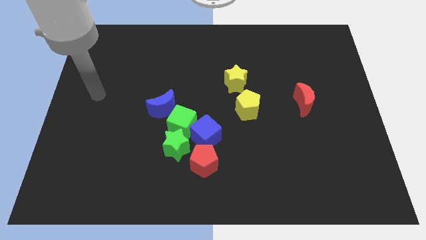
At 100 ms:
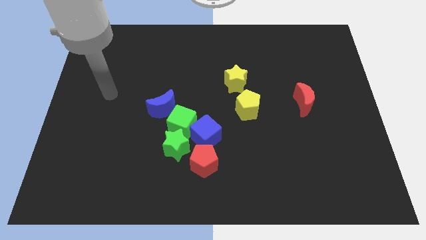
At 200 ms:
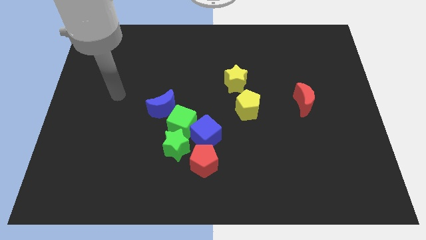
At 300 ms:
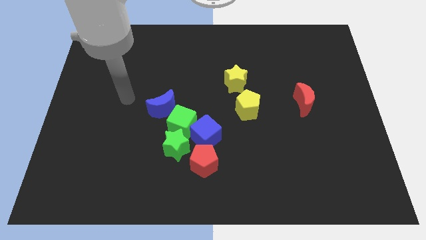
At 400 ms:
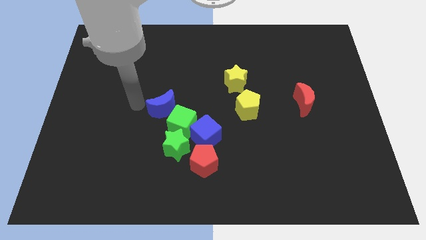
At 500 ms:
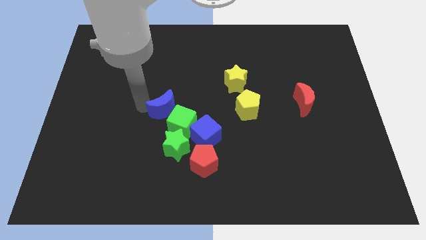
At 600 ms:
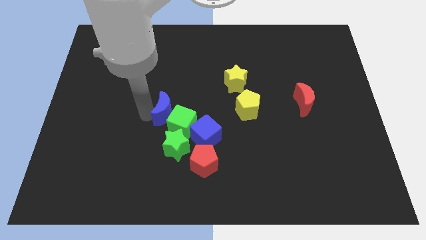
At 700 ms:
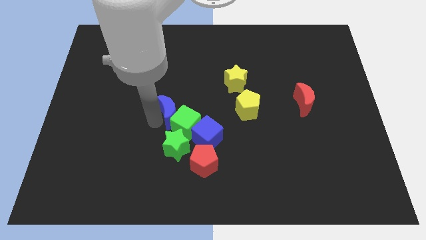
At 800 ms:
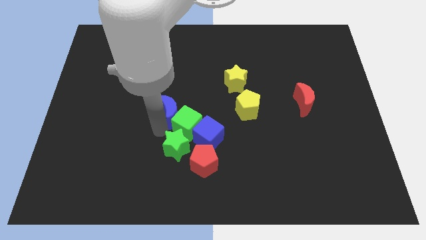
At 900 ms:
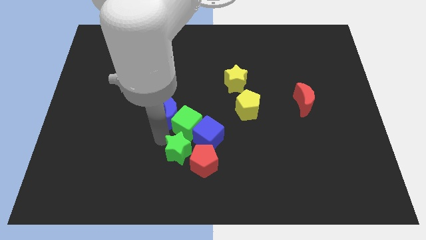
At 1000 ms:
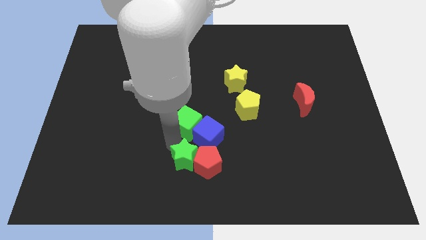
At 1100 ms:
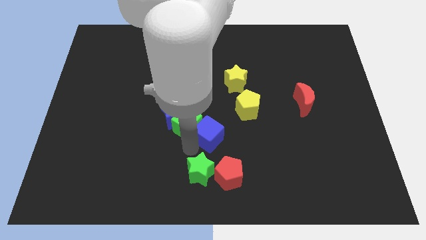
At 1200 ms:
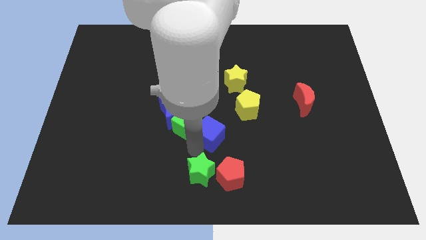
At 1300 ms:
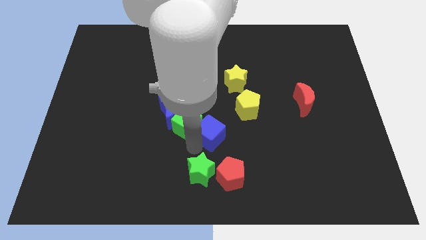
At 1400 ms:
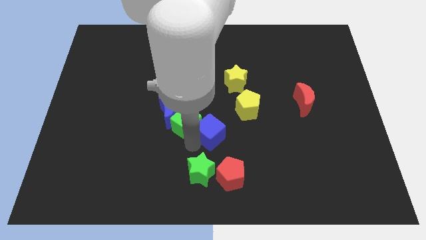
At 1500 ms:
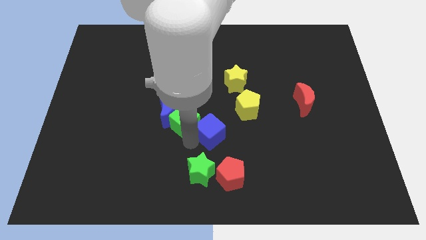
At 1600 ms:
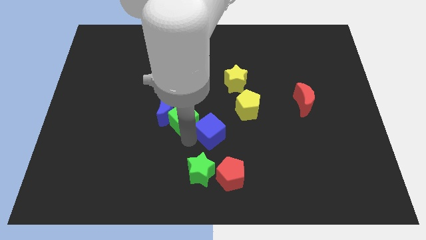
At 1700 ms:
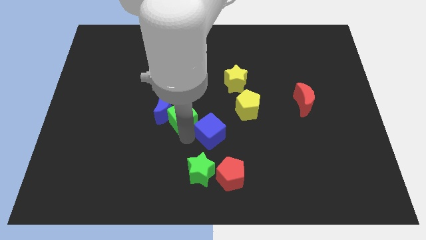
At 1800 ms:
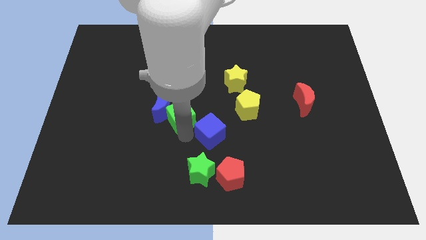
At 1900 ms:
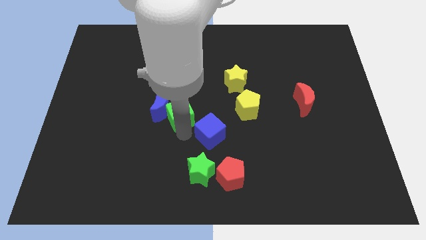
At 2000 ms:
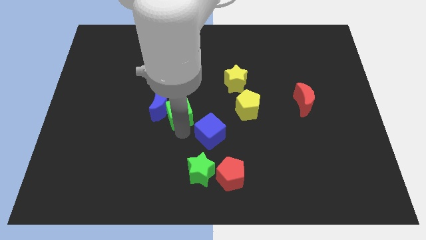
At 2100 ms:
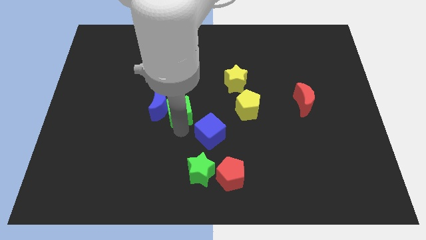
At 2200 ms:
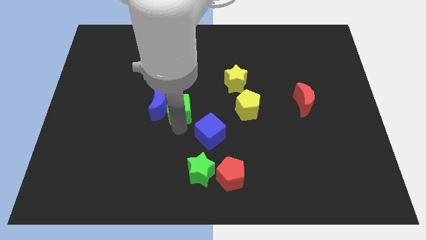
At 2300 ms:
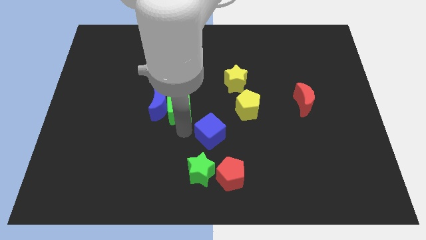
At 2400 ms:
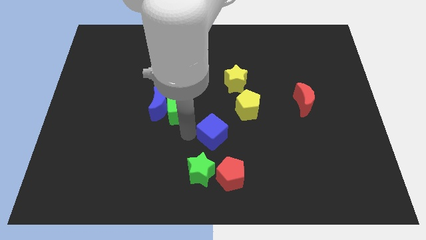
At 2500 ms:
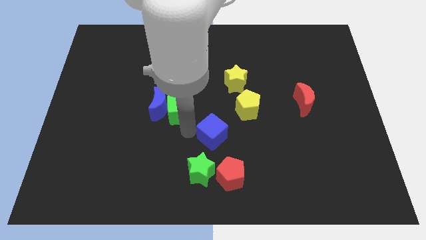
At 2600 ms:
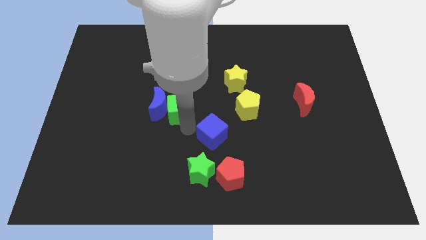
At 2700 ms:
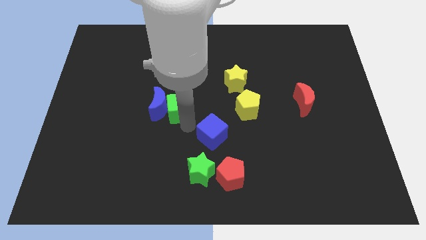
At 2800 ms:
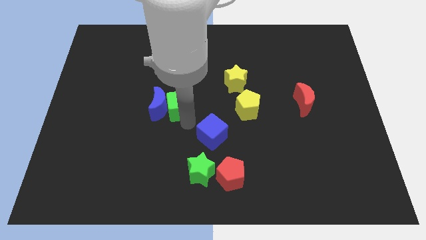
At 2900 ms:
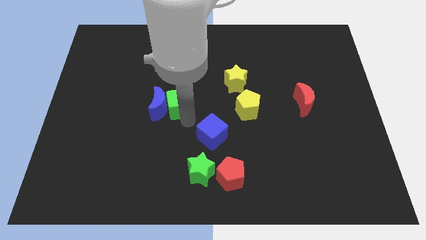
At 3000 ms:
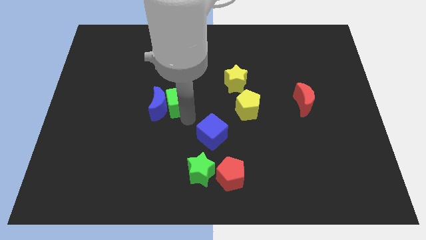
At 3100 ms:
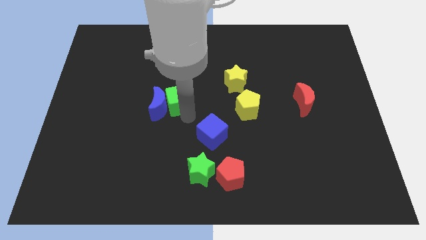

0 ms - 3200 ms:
move the green cube away from the blue cube, green star, and blue moon

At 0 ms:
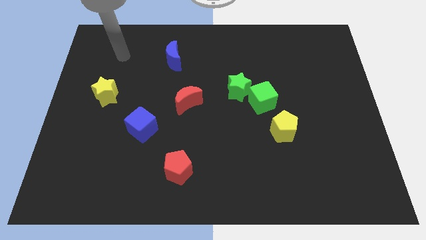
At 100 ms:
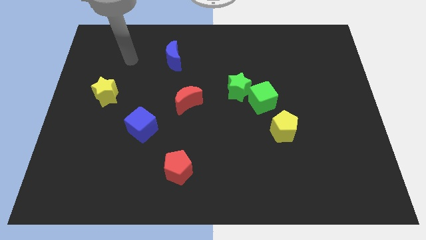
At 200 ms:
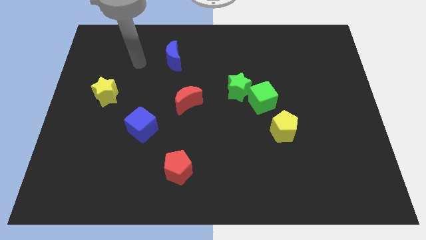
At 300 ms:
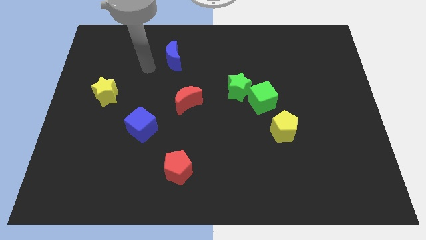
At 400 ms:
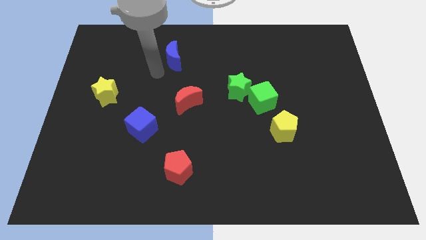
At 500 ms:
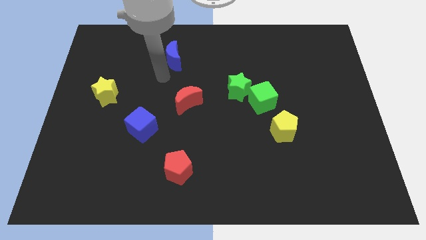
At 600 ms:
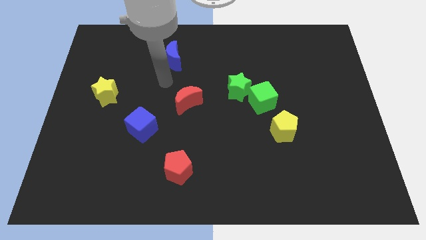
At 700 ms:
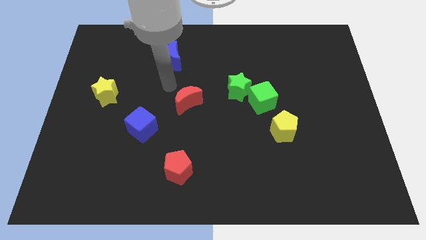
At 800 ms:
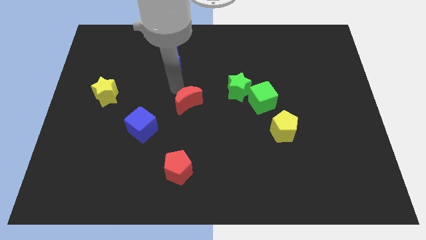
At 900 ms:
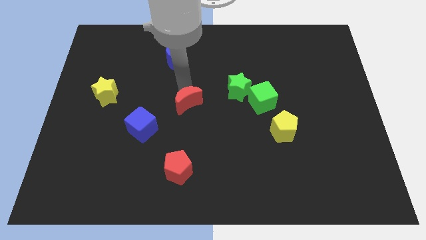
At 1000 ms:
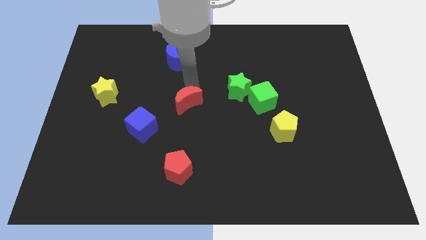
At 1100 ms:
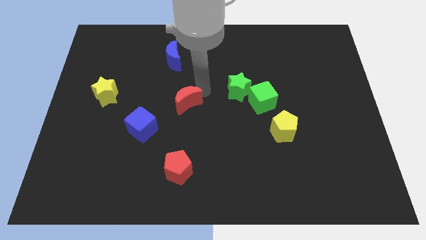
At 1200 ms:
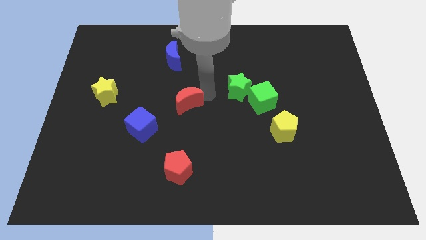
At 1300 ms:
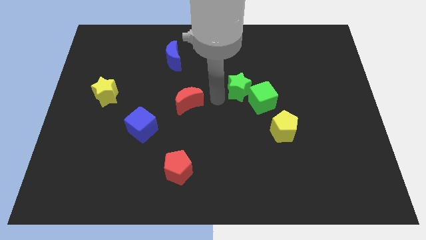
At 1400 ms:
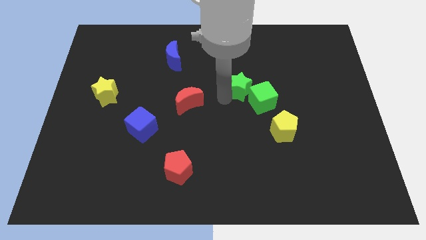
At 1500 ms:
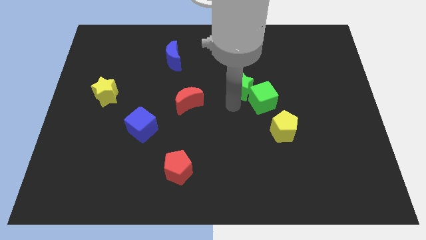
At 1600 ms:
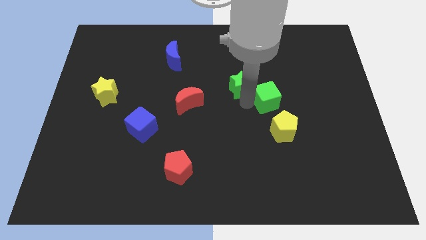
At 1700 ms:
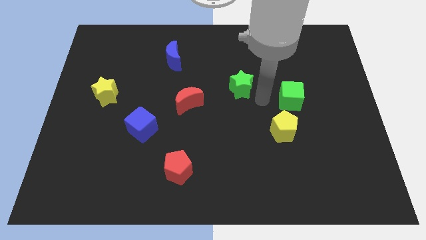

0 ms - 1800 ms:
move the green star away from the green cube

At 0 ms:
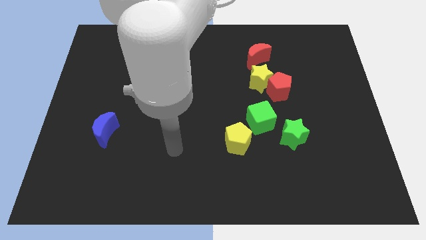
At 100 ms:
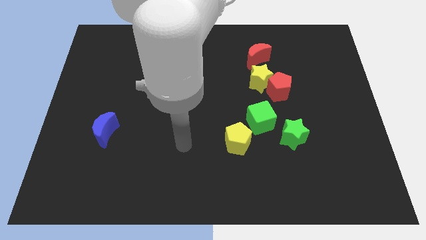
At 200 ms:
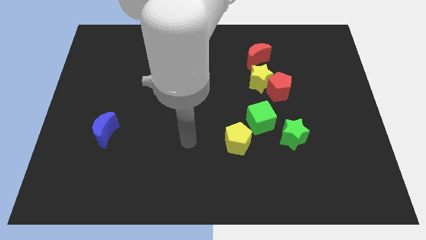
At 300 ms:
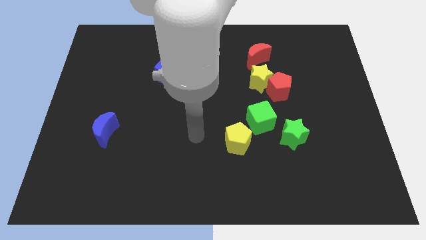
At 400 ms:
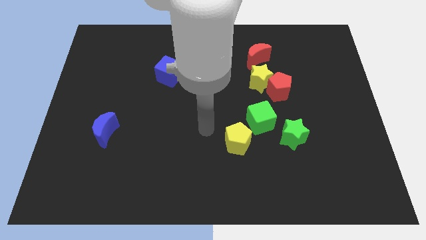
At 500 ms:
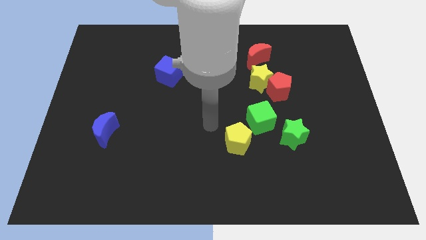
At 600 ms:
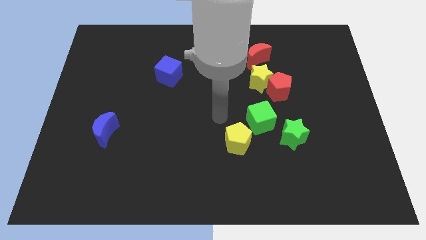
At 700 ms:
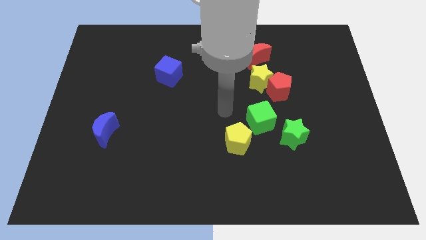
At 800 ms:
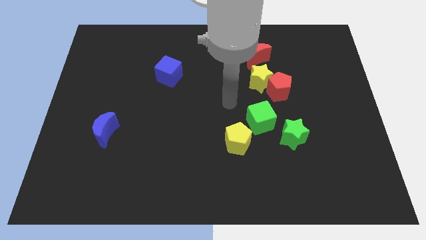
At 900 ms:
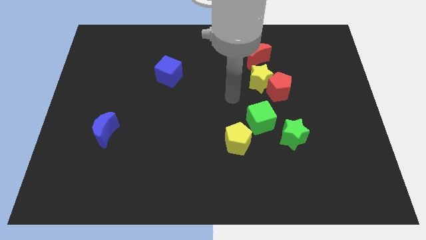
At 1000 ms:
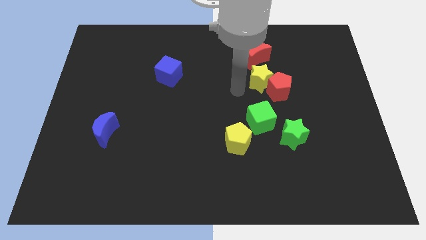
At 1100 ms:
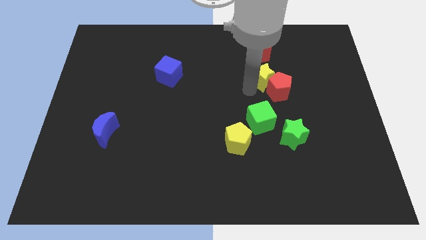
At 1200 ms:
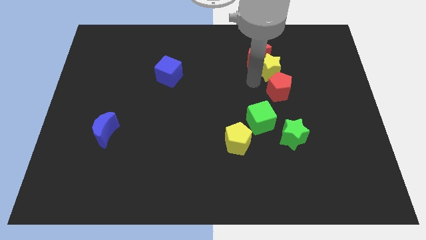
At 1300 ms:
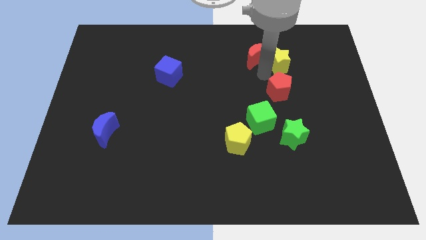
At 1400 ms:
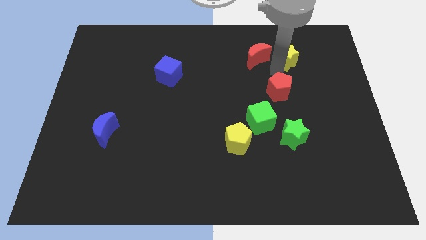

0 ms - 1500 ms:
pull the red pentagon apart from the yellow star

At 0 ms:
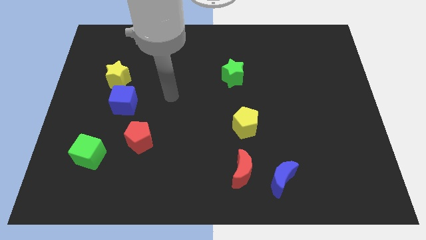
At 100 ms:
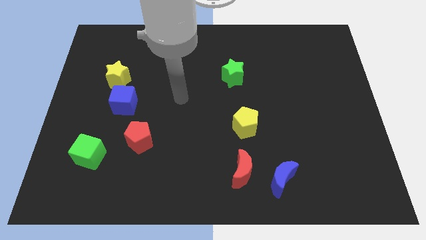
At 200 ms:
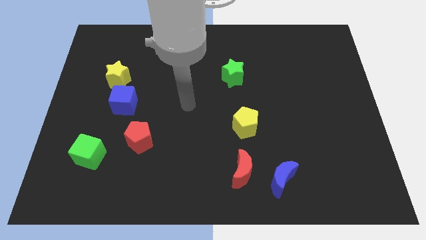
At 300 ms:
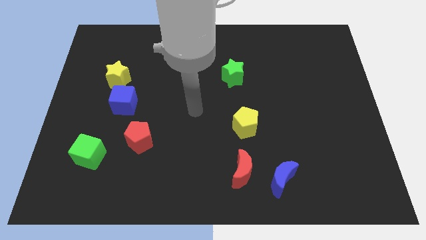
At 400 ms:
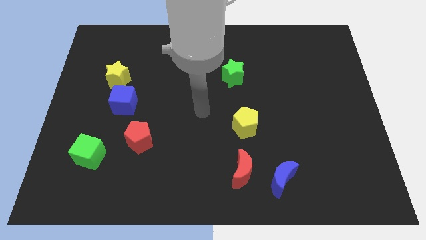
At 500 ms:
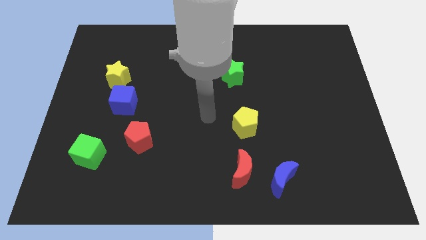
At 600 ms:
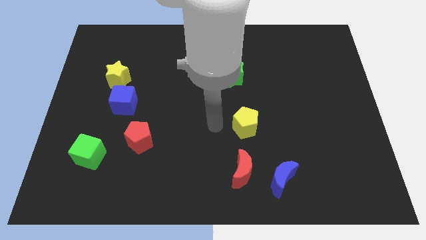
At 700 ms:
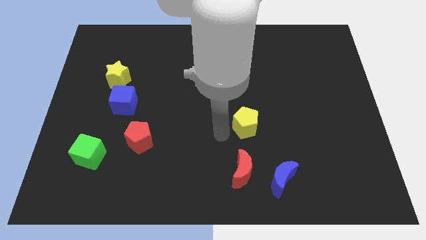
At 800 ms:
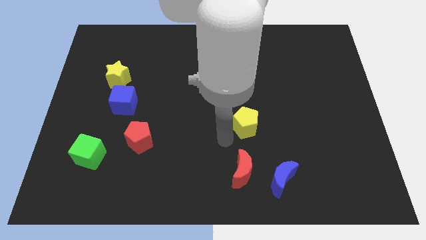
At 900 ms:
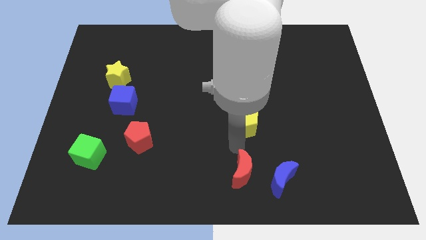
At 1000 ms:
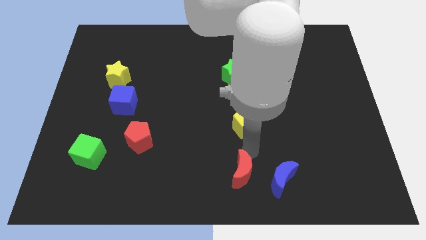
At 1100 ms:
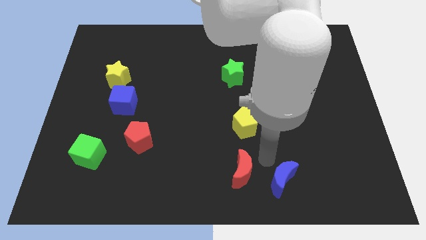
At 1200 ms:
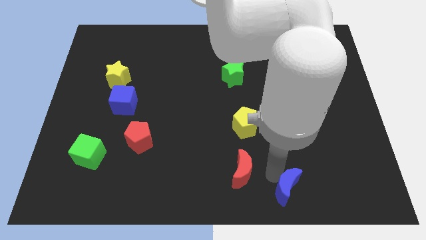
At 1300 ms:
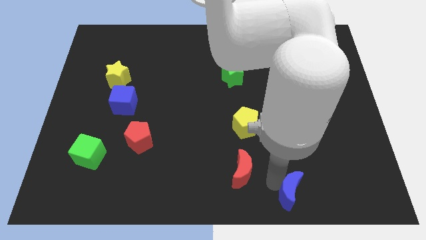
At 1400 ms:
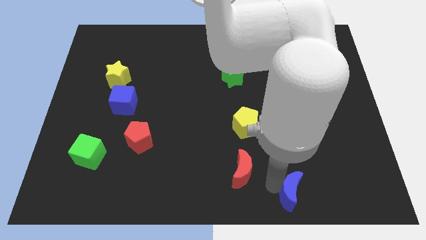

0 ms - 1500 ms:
separate the red moon from the blue moon

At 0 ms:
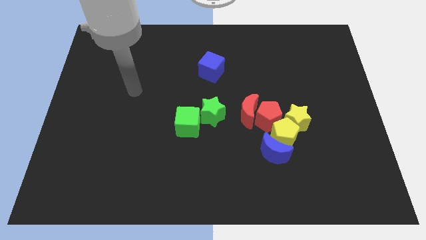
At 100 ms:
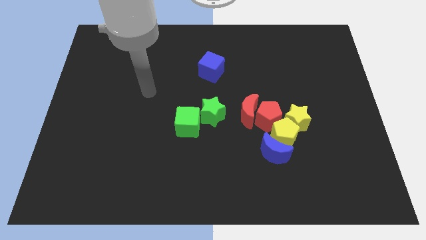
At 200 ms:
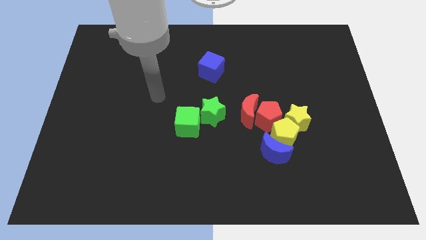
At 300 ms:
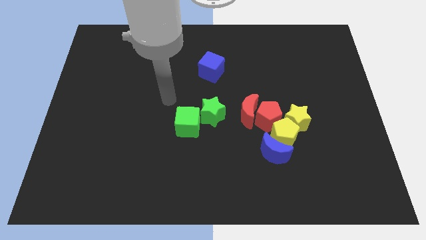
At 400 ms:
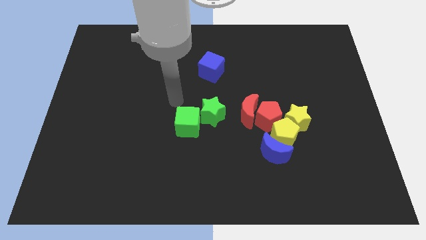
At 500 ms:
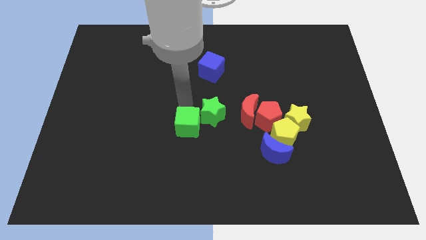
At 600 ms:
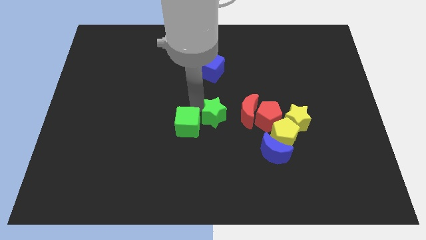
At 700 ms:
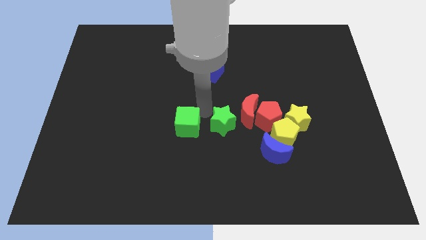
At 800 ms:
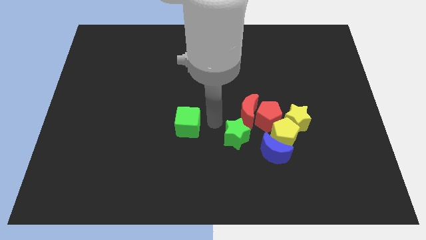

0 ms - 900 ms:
separate the green cube from the green star

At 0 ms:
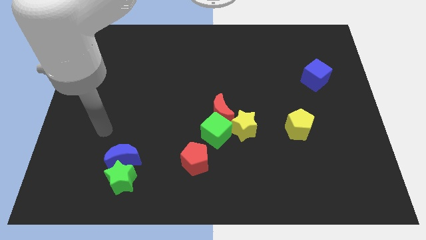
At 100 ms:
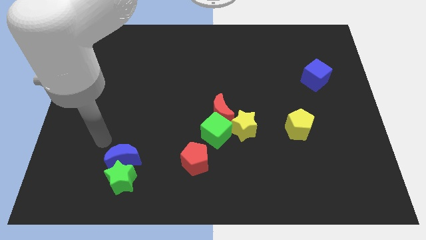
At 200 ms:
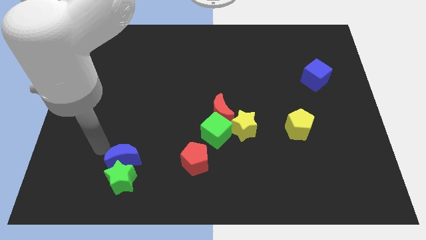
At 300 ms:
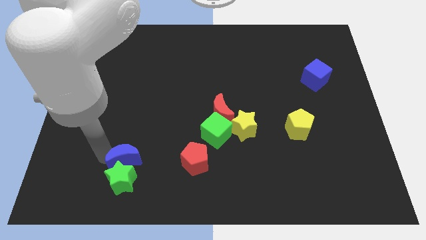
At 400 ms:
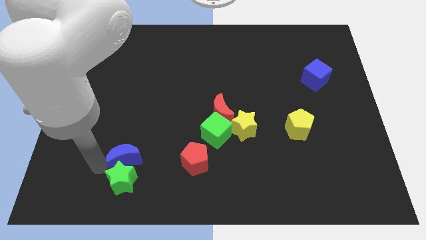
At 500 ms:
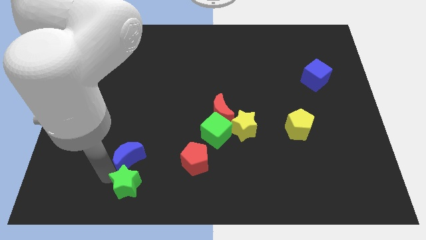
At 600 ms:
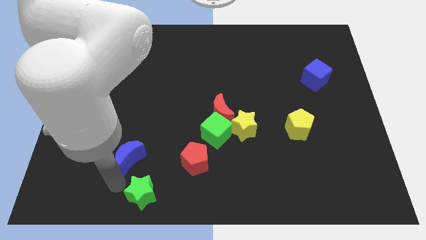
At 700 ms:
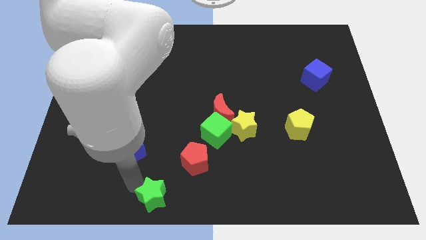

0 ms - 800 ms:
pull the blue moon apart from the green star
